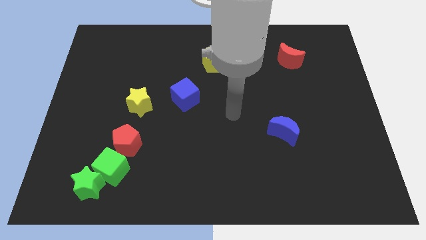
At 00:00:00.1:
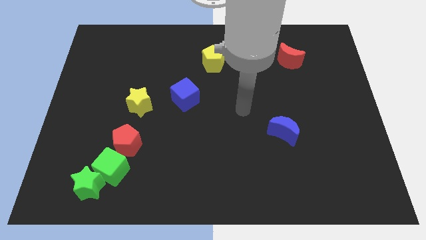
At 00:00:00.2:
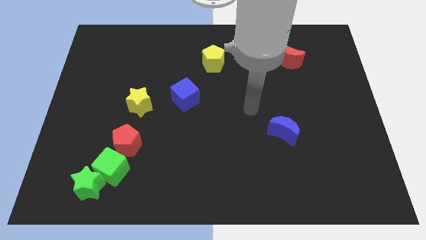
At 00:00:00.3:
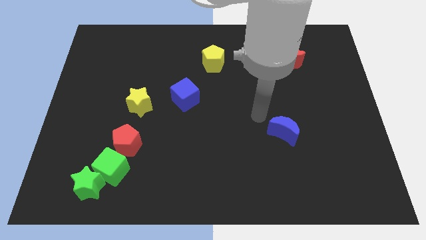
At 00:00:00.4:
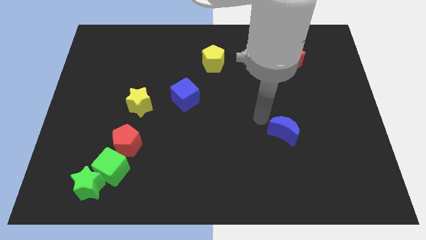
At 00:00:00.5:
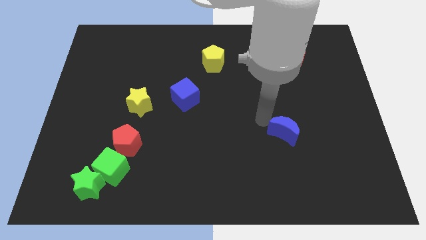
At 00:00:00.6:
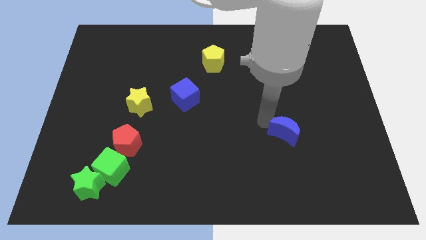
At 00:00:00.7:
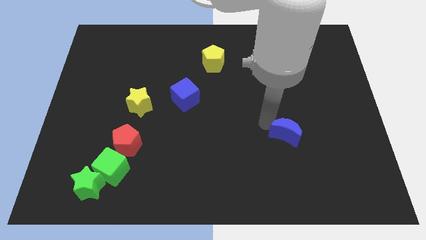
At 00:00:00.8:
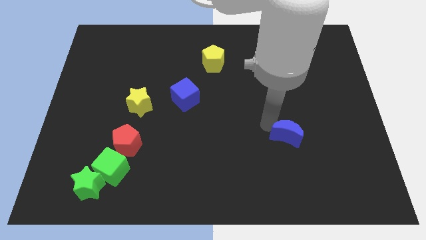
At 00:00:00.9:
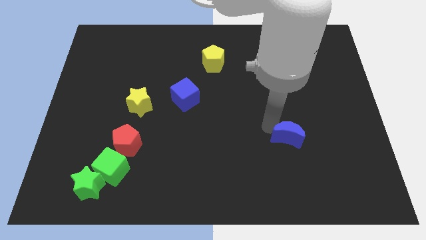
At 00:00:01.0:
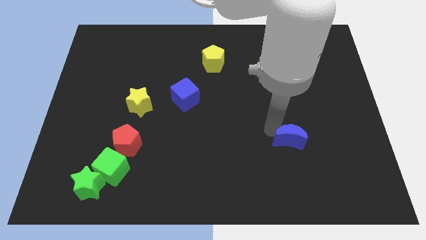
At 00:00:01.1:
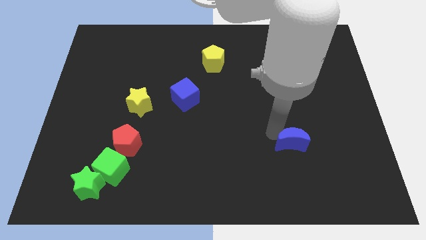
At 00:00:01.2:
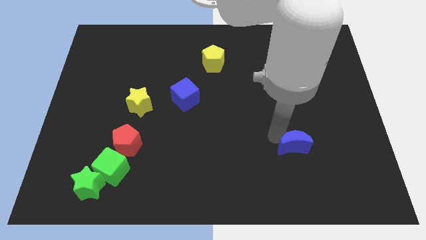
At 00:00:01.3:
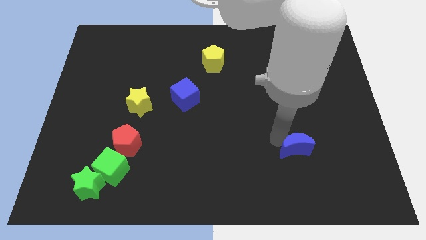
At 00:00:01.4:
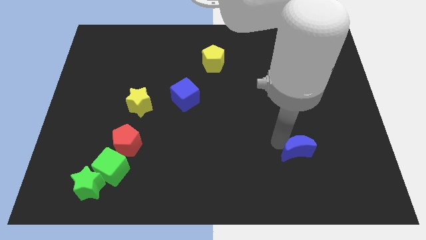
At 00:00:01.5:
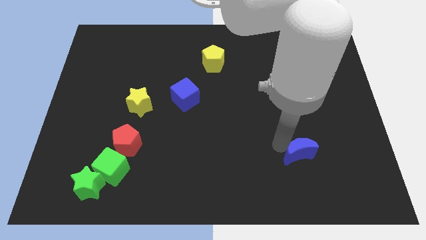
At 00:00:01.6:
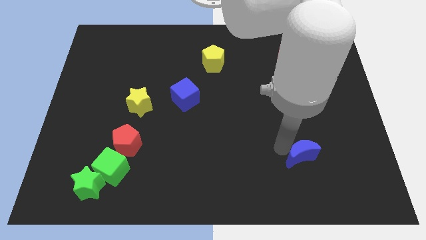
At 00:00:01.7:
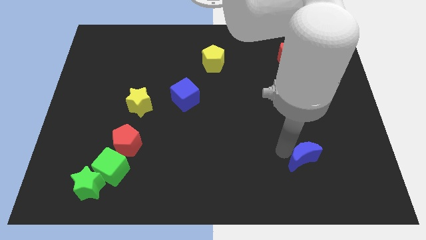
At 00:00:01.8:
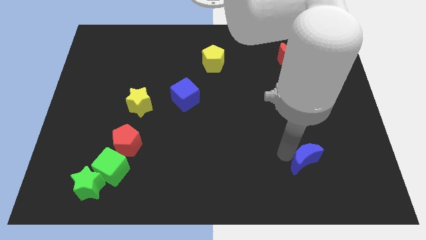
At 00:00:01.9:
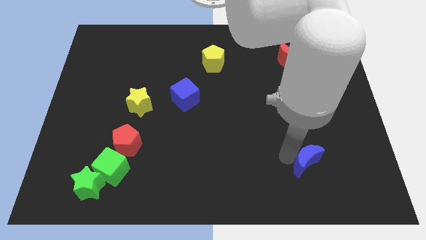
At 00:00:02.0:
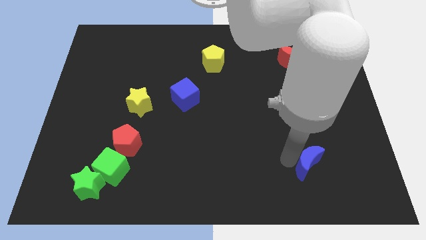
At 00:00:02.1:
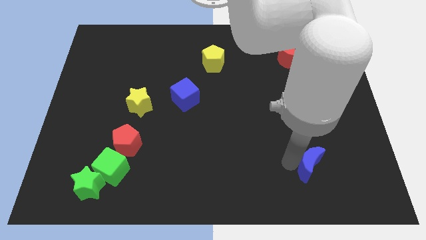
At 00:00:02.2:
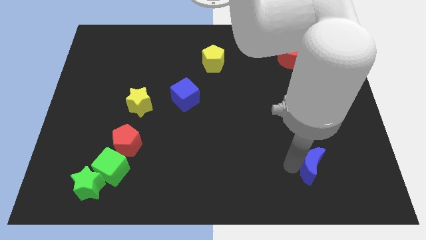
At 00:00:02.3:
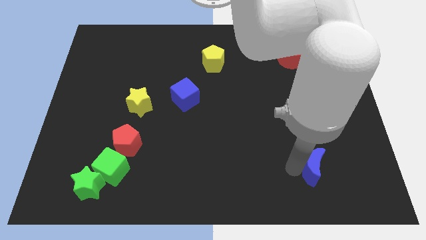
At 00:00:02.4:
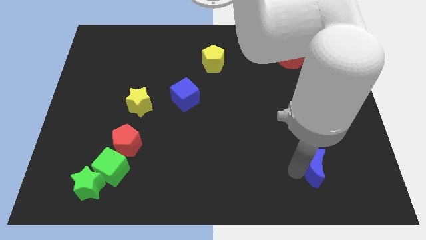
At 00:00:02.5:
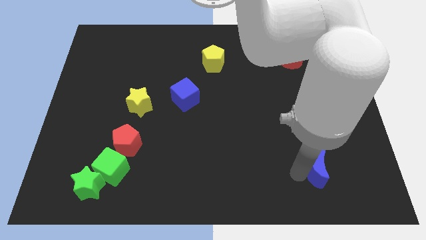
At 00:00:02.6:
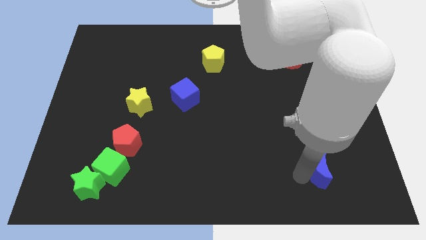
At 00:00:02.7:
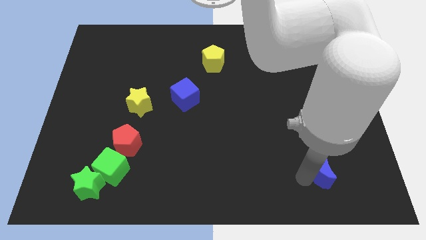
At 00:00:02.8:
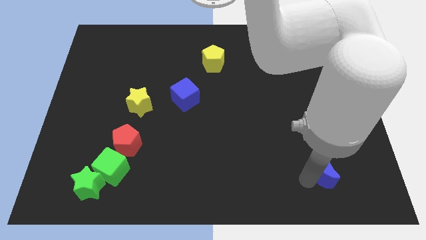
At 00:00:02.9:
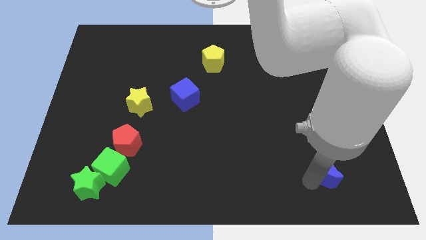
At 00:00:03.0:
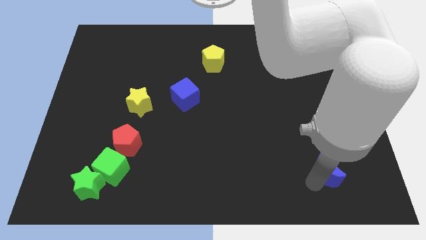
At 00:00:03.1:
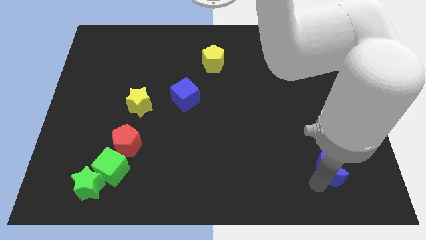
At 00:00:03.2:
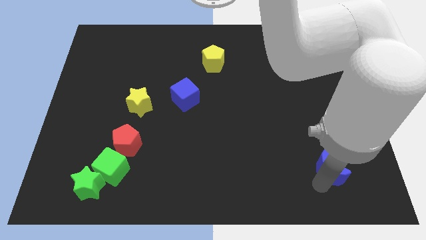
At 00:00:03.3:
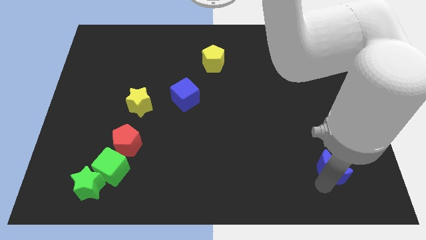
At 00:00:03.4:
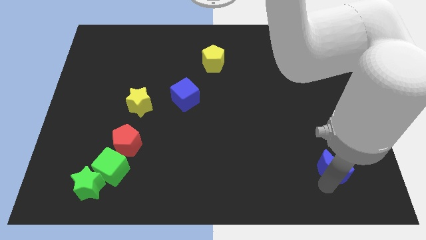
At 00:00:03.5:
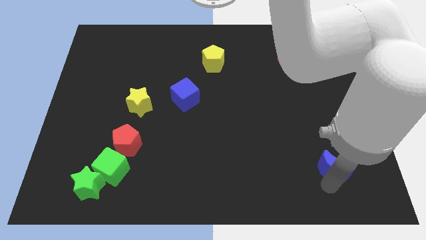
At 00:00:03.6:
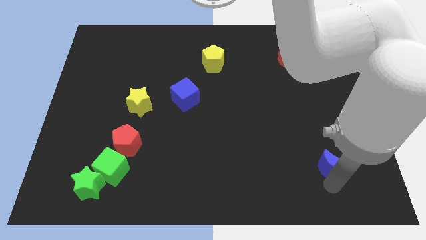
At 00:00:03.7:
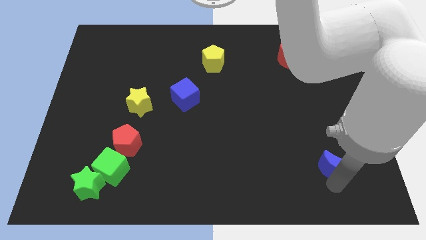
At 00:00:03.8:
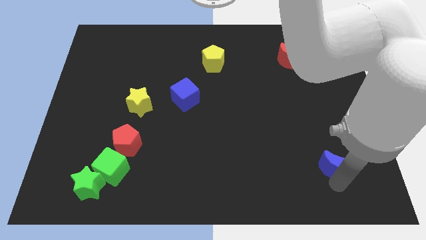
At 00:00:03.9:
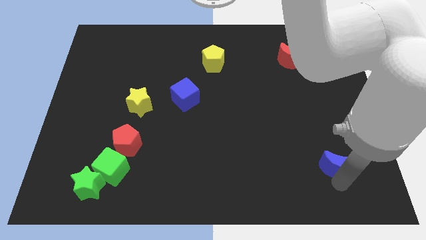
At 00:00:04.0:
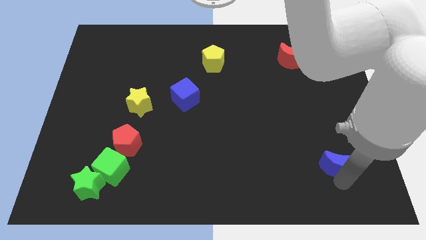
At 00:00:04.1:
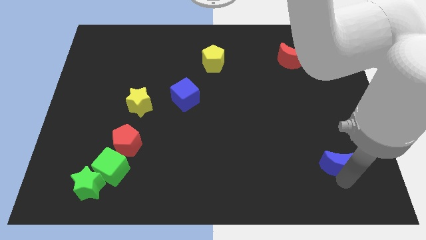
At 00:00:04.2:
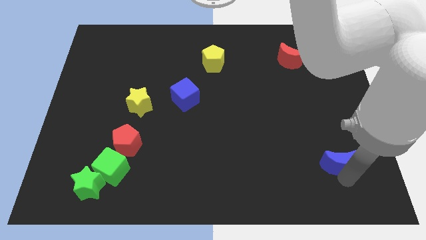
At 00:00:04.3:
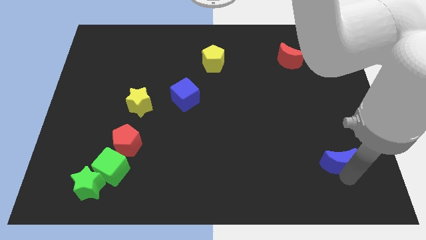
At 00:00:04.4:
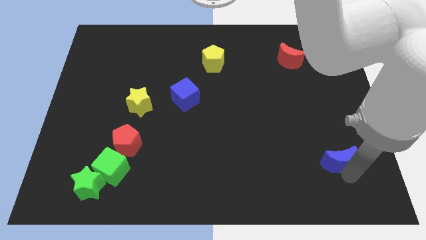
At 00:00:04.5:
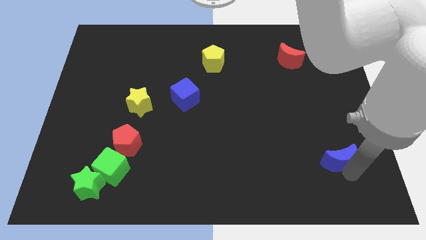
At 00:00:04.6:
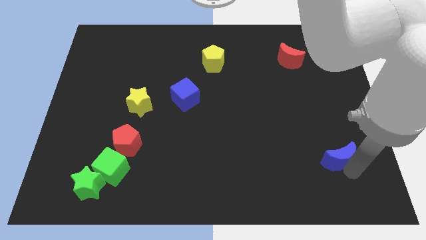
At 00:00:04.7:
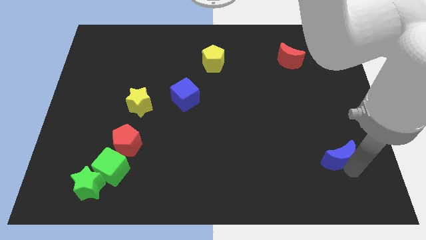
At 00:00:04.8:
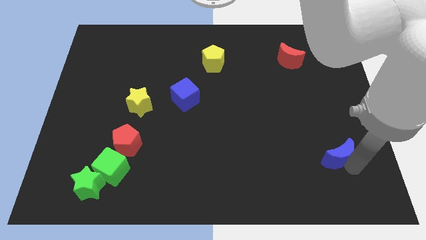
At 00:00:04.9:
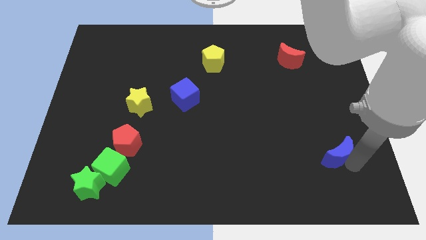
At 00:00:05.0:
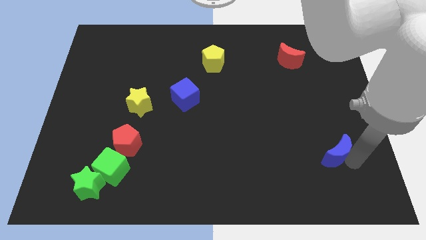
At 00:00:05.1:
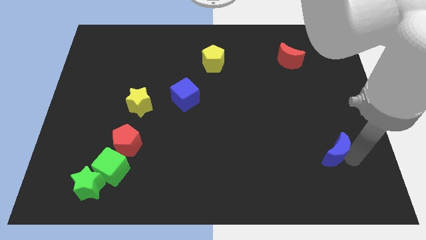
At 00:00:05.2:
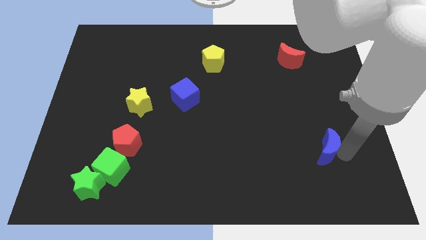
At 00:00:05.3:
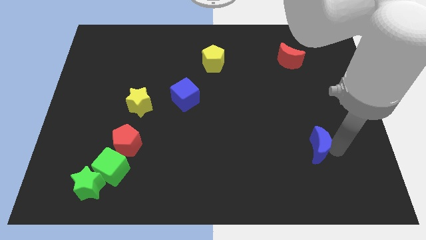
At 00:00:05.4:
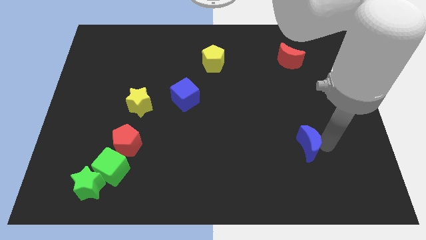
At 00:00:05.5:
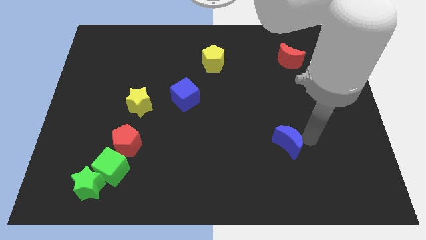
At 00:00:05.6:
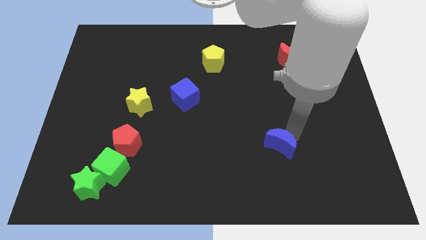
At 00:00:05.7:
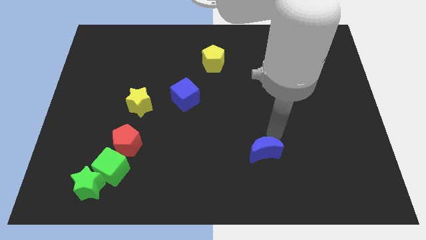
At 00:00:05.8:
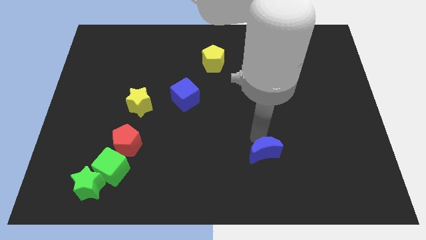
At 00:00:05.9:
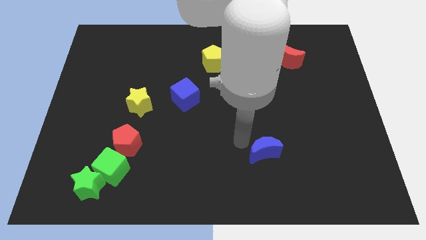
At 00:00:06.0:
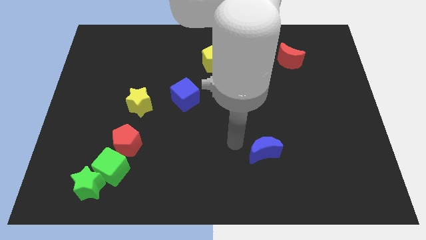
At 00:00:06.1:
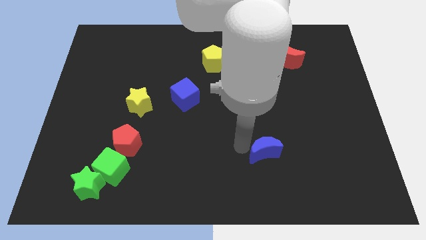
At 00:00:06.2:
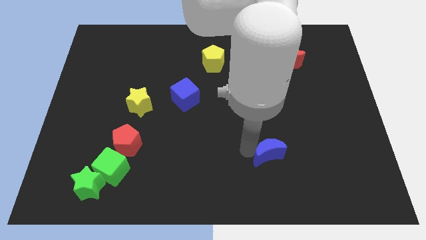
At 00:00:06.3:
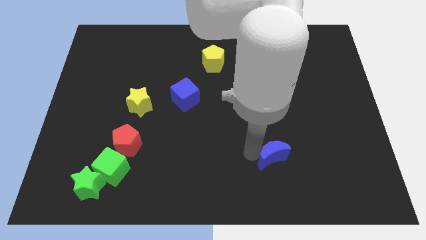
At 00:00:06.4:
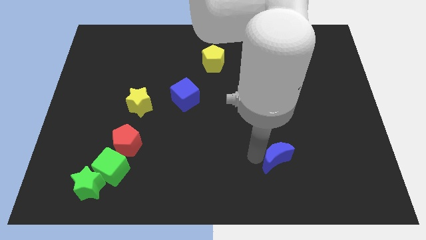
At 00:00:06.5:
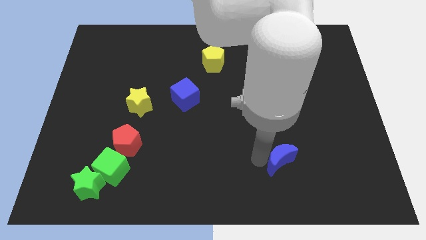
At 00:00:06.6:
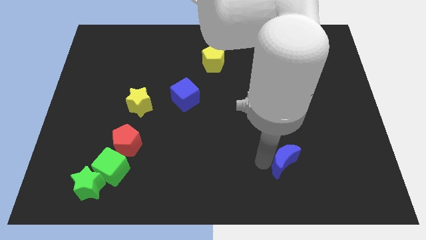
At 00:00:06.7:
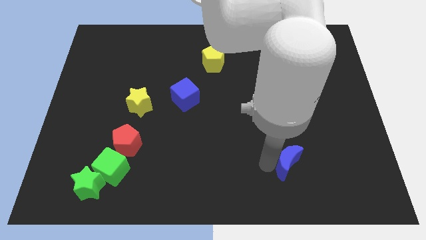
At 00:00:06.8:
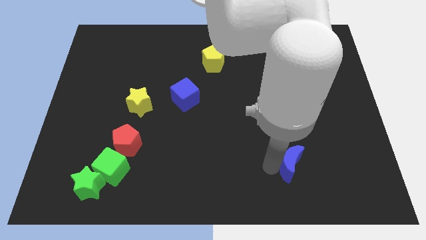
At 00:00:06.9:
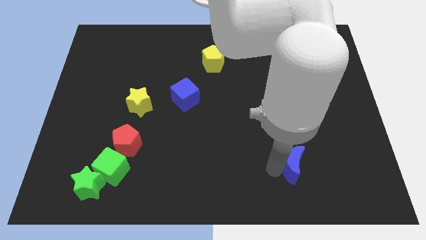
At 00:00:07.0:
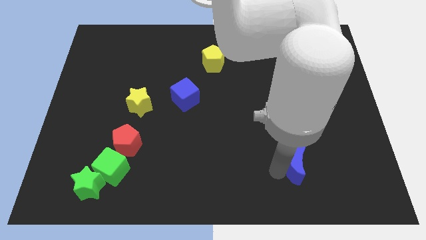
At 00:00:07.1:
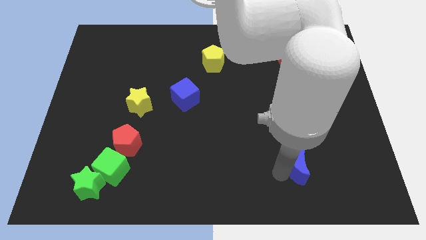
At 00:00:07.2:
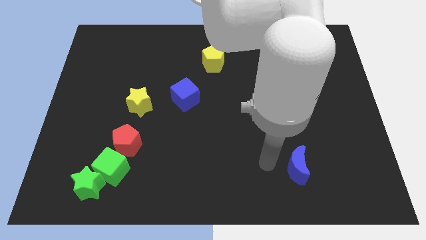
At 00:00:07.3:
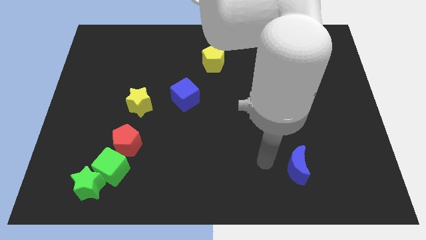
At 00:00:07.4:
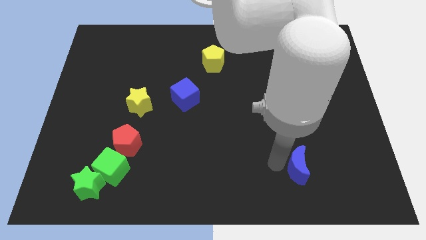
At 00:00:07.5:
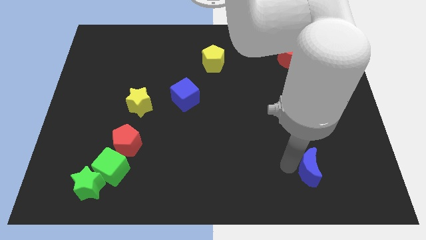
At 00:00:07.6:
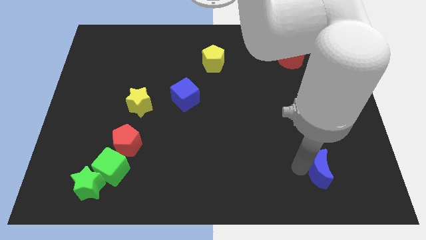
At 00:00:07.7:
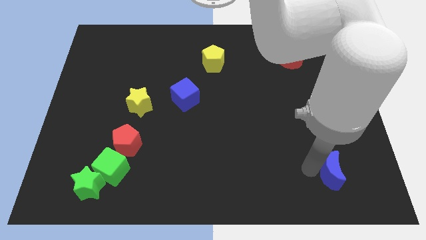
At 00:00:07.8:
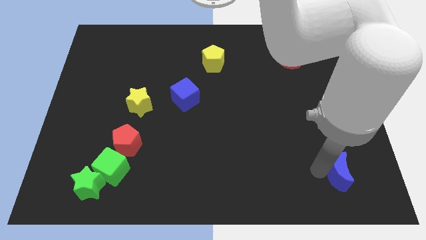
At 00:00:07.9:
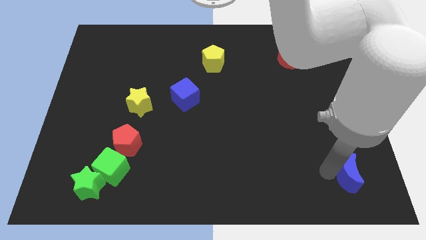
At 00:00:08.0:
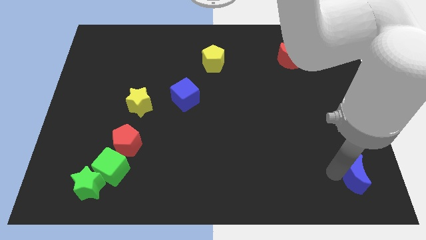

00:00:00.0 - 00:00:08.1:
put the blue moon to the bottom right of the board
